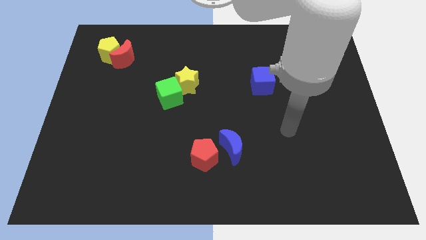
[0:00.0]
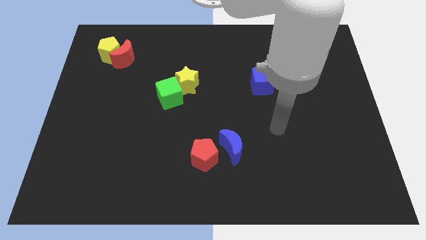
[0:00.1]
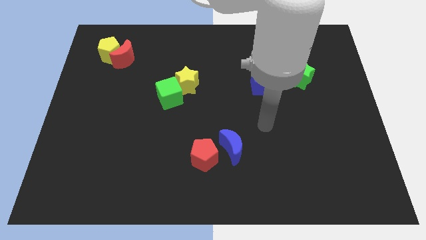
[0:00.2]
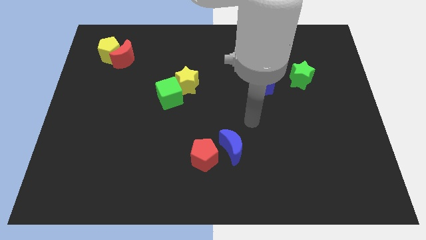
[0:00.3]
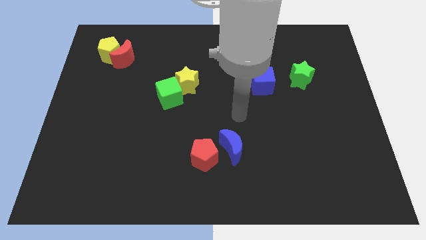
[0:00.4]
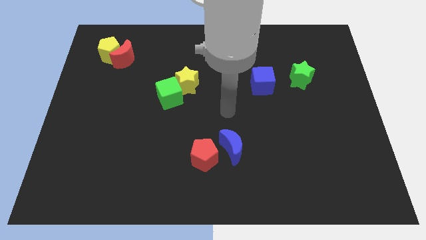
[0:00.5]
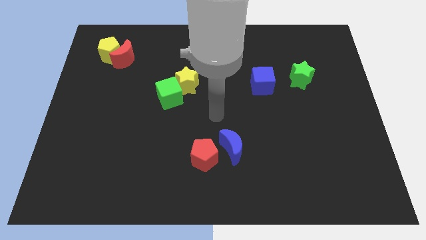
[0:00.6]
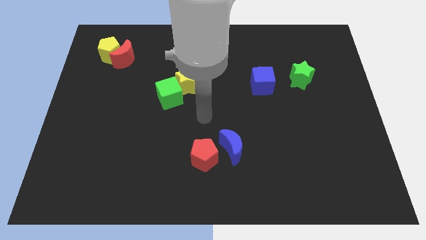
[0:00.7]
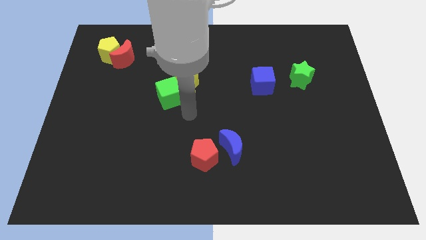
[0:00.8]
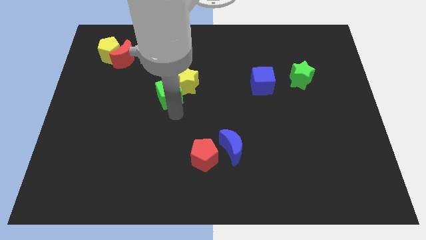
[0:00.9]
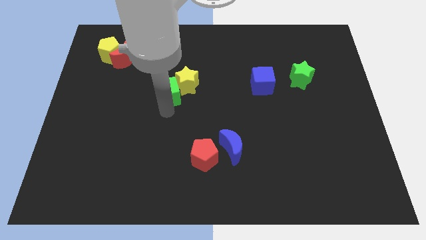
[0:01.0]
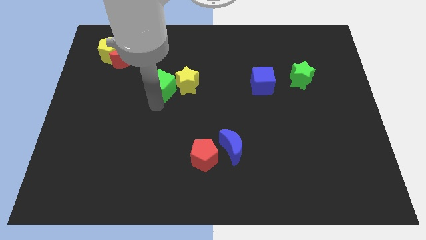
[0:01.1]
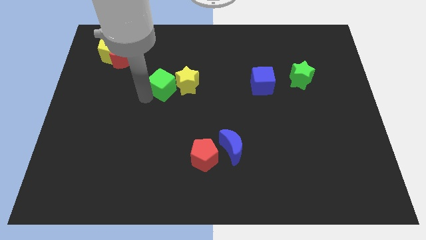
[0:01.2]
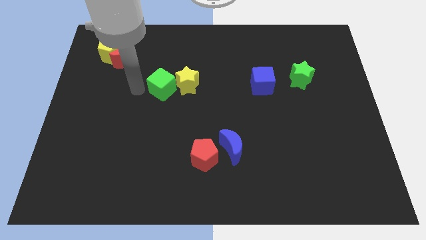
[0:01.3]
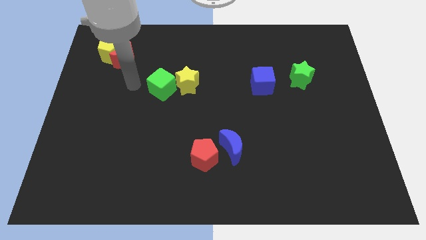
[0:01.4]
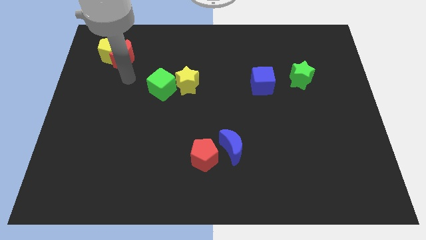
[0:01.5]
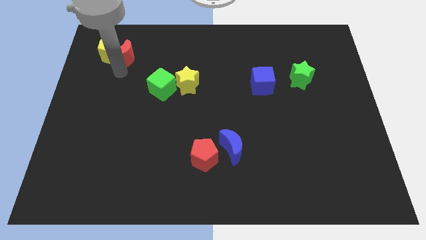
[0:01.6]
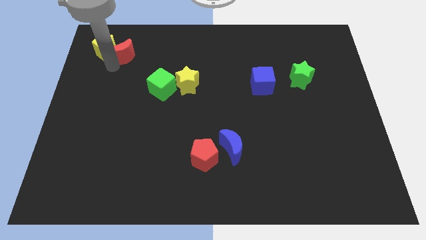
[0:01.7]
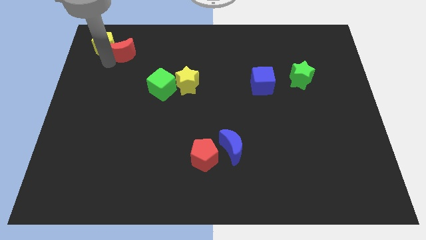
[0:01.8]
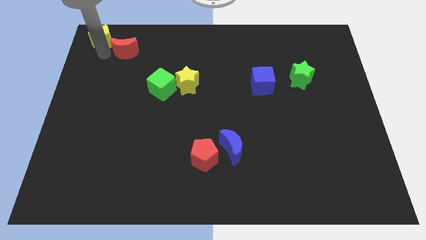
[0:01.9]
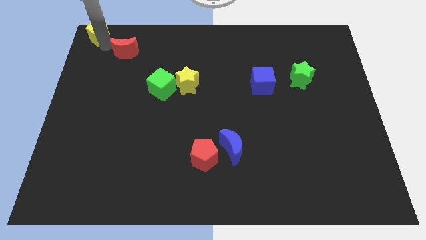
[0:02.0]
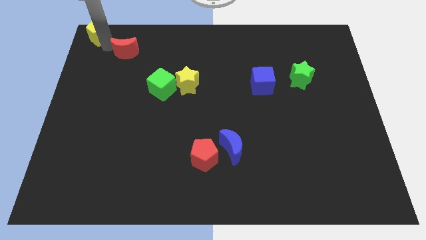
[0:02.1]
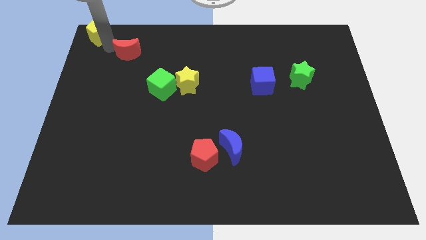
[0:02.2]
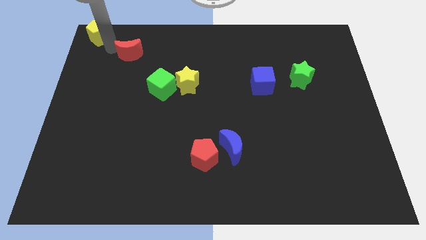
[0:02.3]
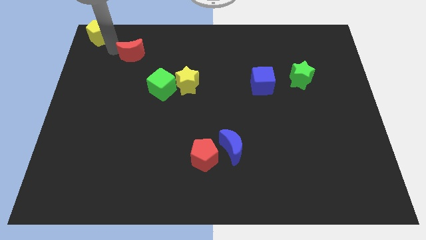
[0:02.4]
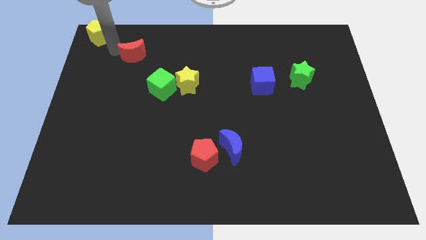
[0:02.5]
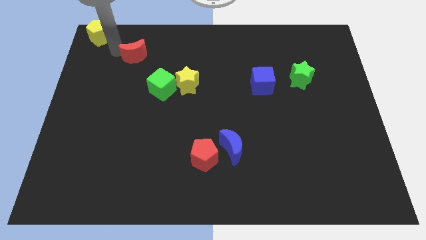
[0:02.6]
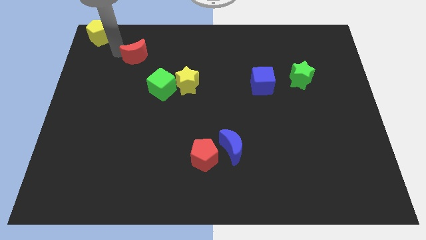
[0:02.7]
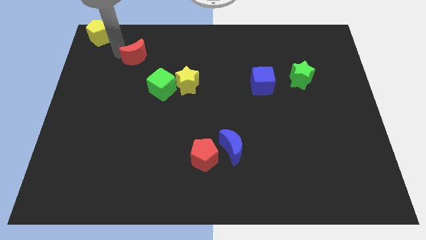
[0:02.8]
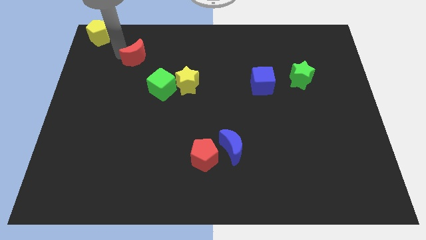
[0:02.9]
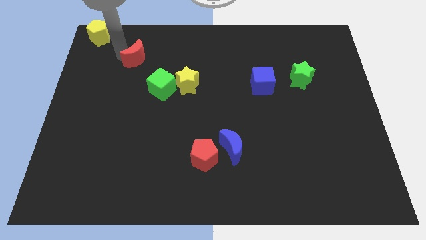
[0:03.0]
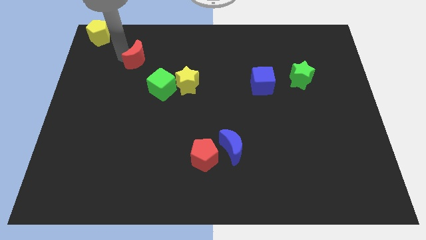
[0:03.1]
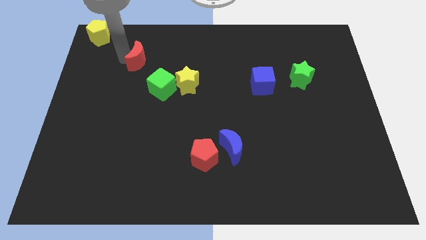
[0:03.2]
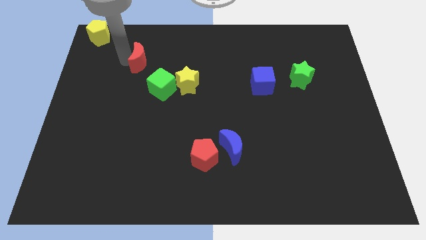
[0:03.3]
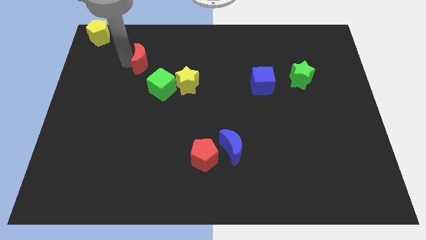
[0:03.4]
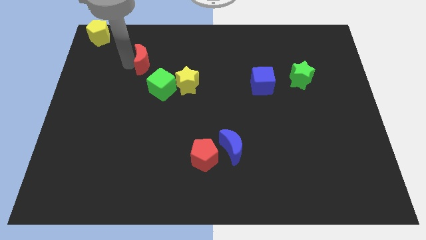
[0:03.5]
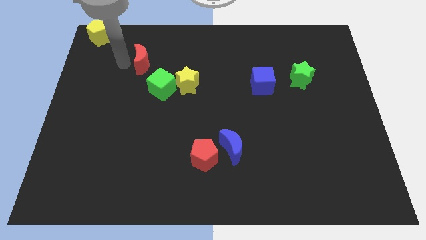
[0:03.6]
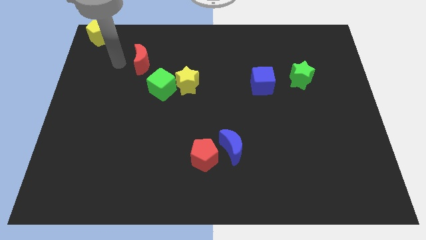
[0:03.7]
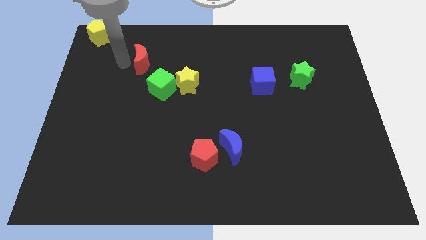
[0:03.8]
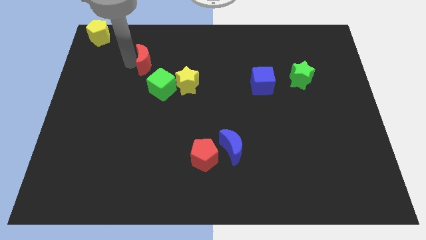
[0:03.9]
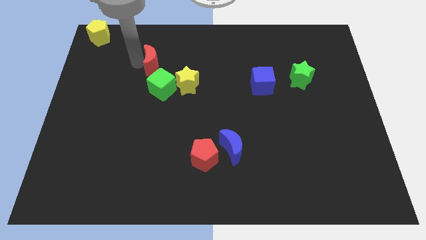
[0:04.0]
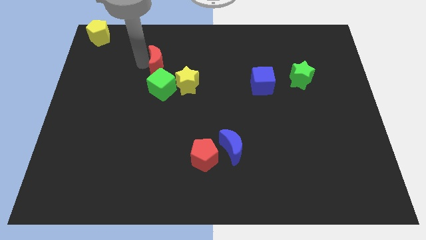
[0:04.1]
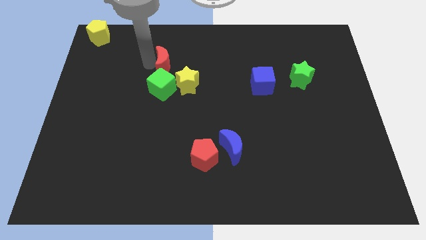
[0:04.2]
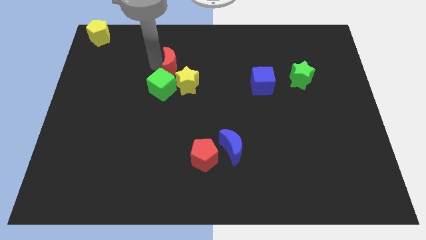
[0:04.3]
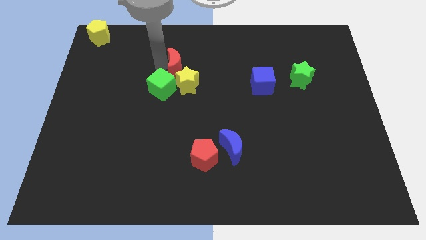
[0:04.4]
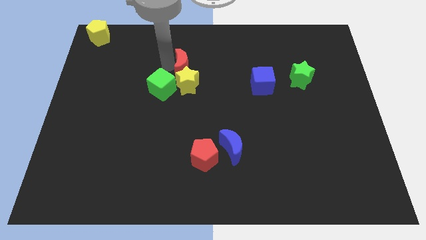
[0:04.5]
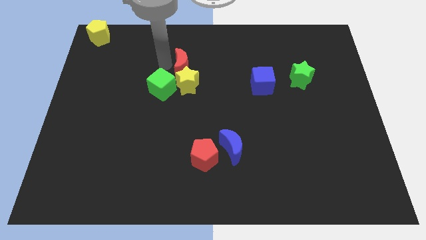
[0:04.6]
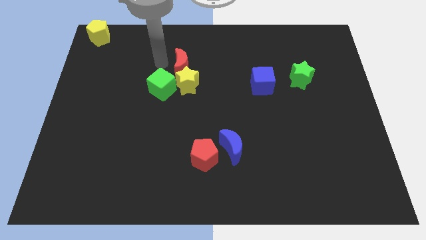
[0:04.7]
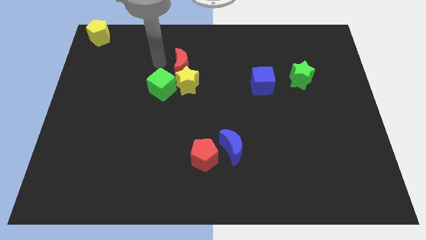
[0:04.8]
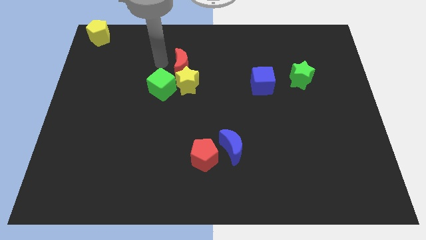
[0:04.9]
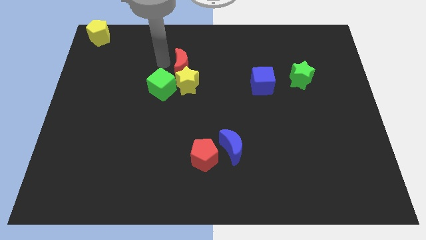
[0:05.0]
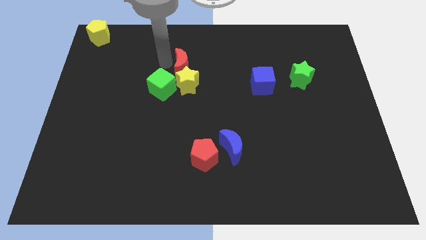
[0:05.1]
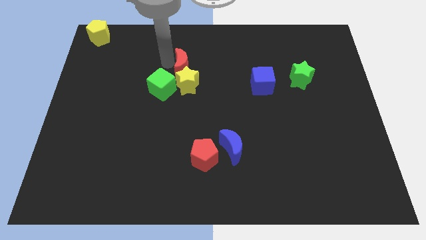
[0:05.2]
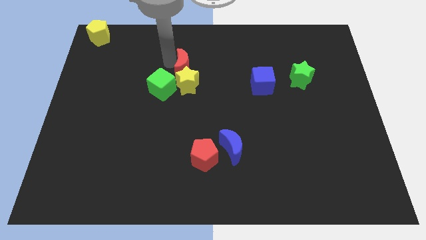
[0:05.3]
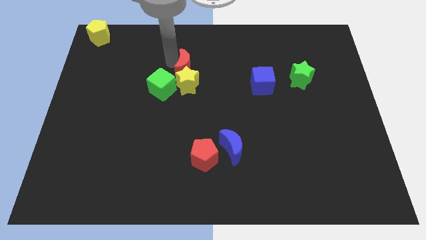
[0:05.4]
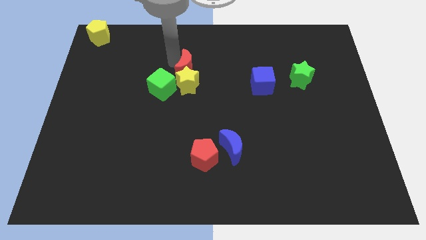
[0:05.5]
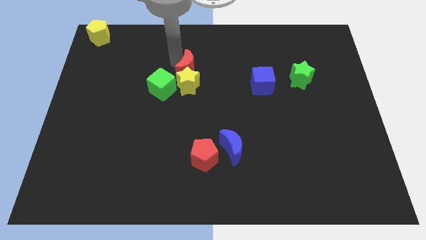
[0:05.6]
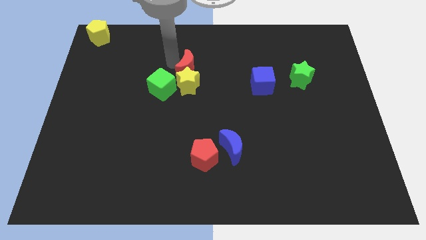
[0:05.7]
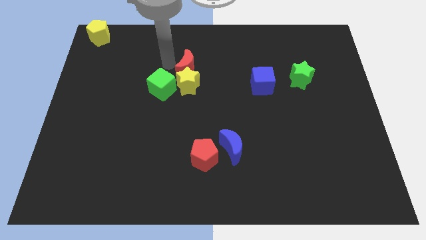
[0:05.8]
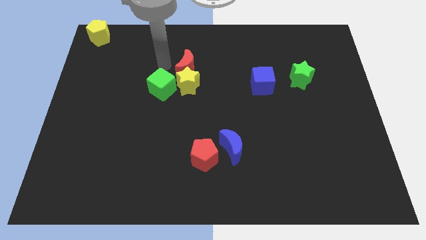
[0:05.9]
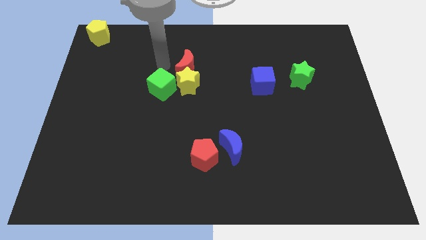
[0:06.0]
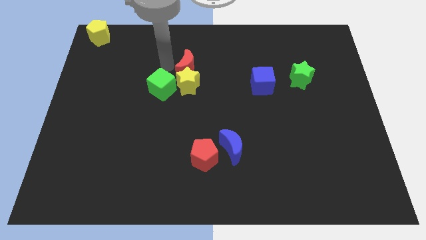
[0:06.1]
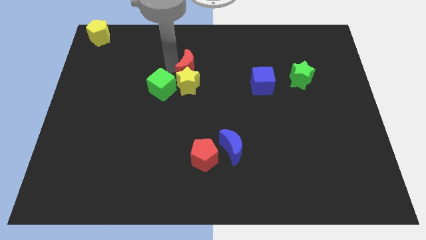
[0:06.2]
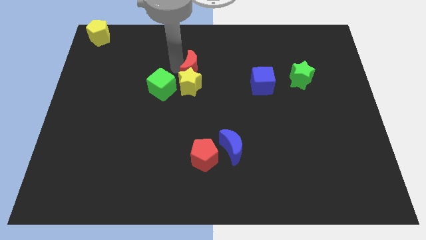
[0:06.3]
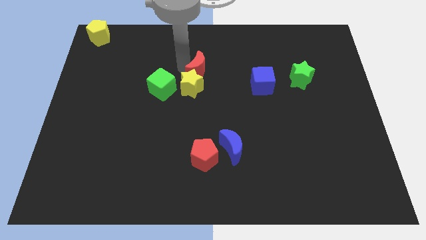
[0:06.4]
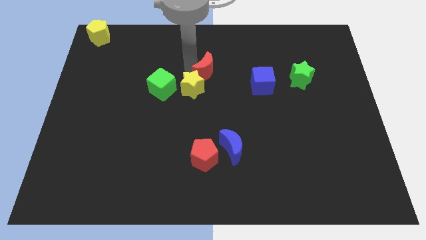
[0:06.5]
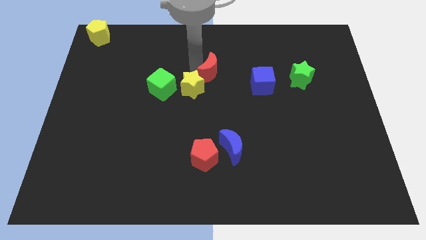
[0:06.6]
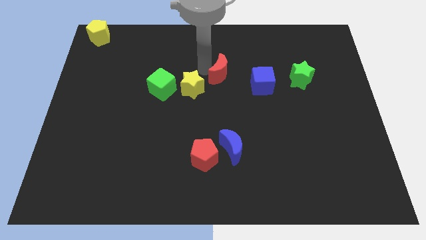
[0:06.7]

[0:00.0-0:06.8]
slide the red moon to the right side of the yellow star
